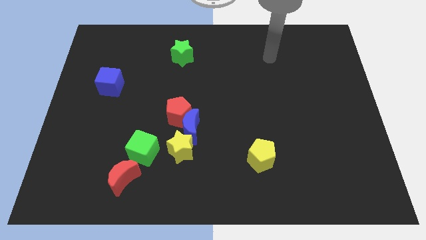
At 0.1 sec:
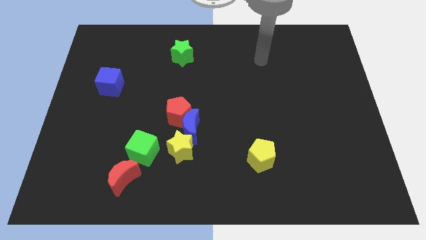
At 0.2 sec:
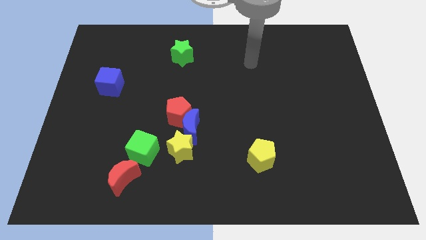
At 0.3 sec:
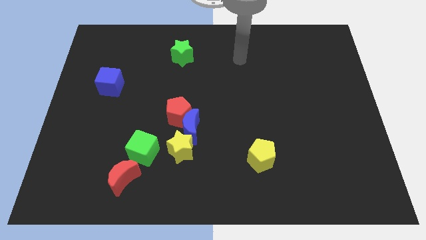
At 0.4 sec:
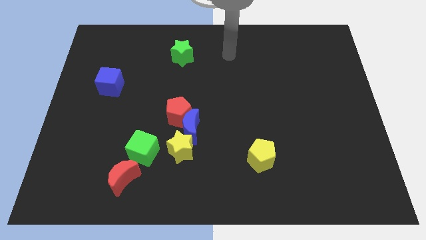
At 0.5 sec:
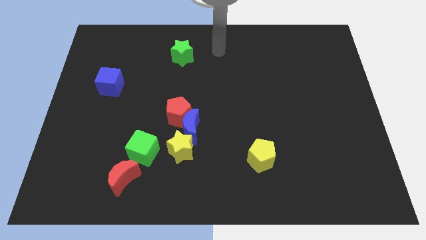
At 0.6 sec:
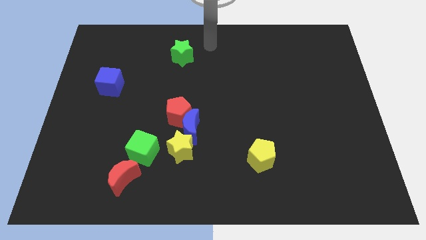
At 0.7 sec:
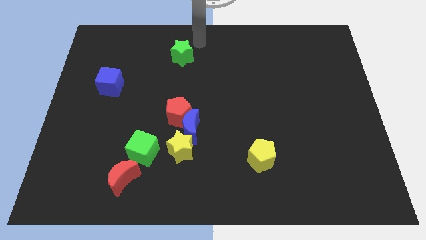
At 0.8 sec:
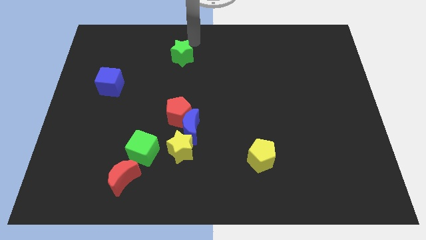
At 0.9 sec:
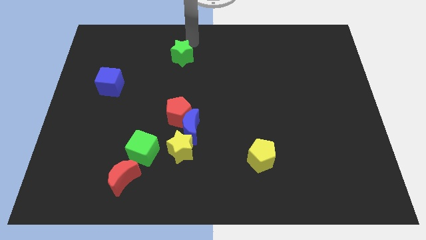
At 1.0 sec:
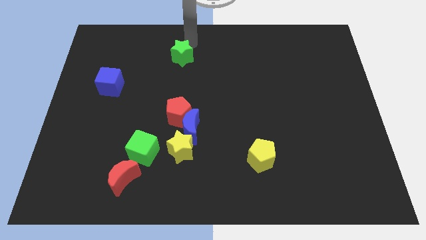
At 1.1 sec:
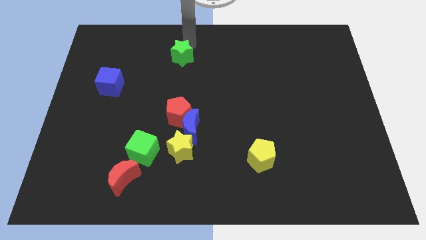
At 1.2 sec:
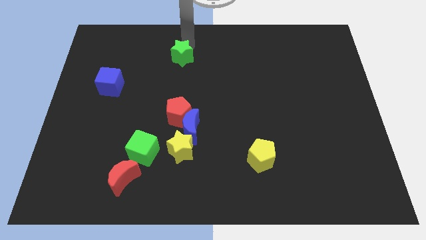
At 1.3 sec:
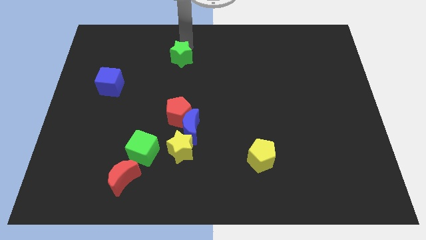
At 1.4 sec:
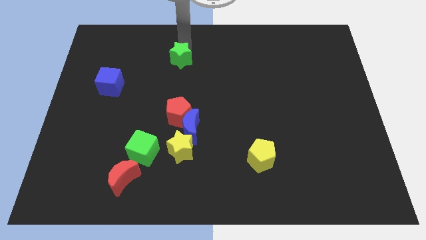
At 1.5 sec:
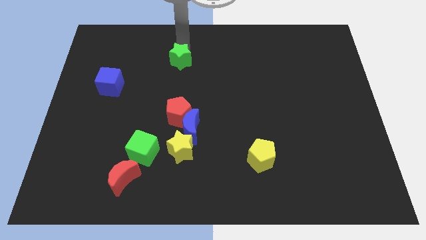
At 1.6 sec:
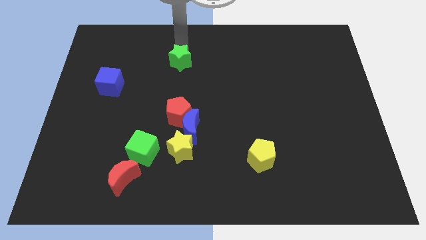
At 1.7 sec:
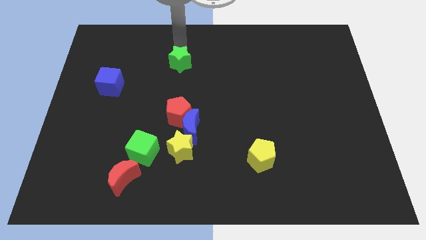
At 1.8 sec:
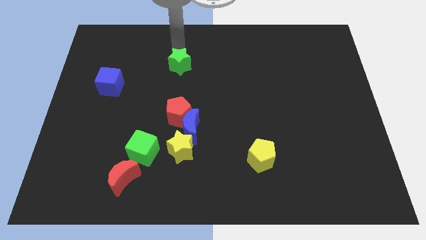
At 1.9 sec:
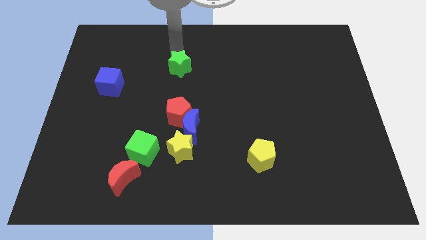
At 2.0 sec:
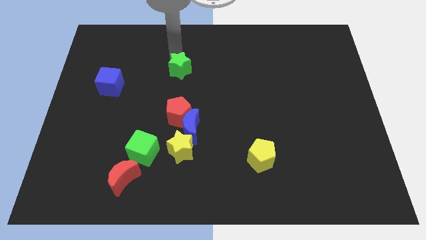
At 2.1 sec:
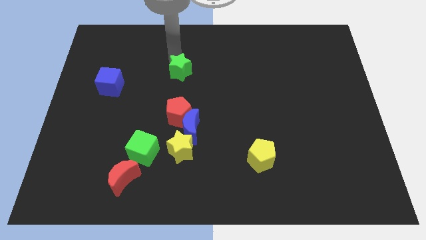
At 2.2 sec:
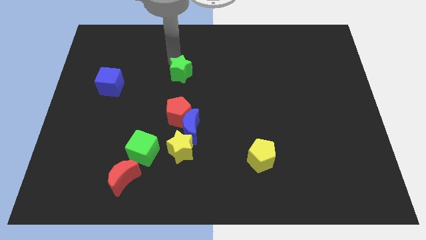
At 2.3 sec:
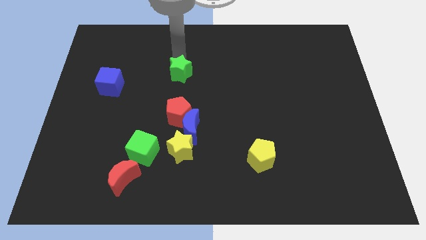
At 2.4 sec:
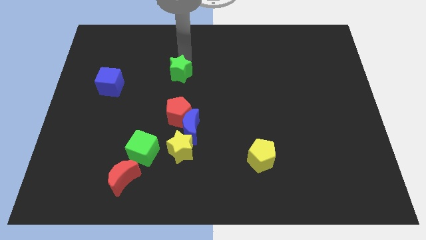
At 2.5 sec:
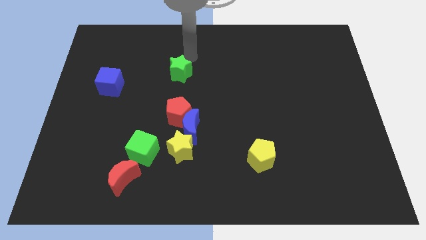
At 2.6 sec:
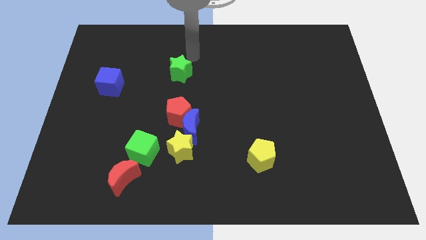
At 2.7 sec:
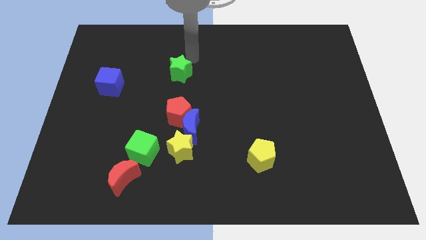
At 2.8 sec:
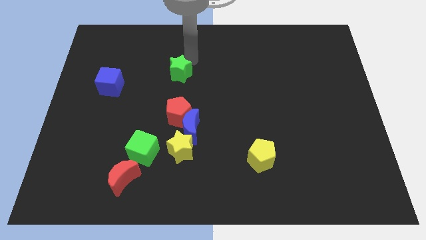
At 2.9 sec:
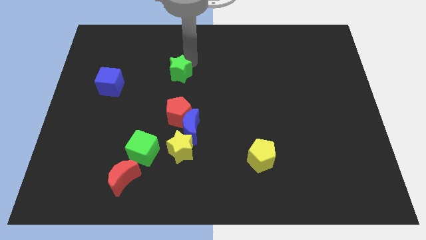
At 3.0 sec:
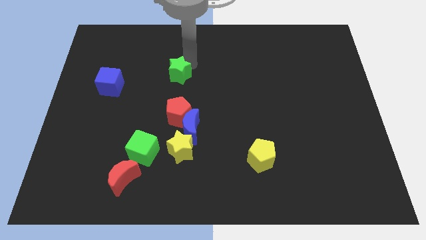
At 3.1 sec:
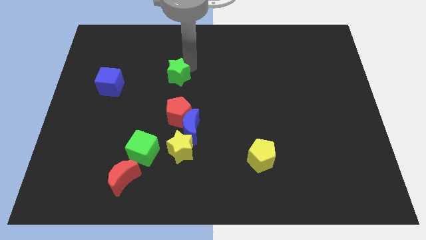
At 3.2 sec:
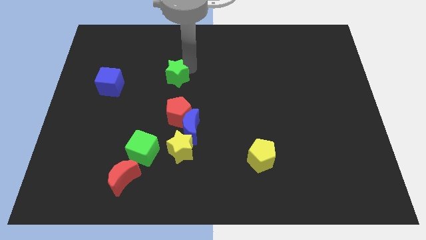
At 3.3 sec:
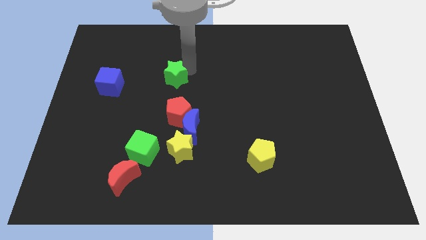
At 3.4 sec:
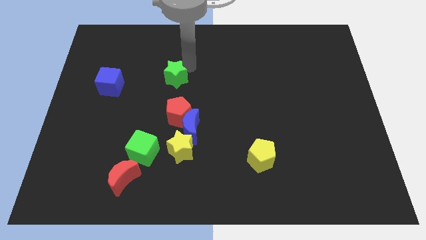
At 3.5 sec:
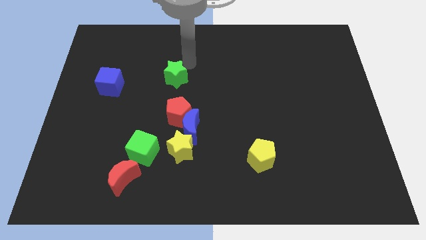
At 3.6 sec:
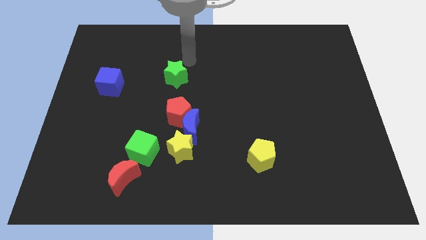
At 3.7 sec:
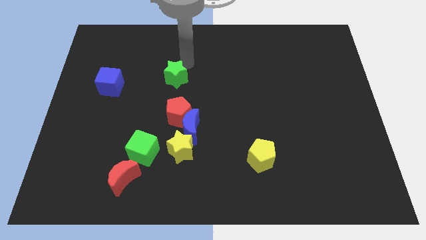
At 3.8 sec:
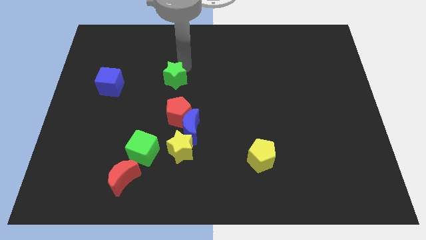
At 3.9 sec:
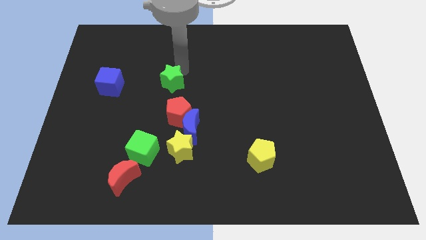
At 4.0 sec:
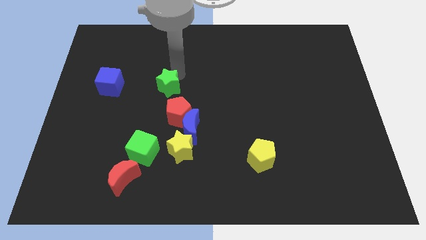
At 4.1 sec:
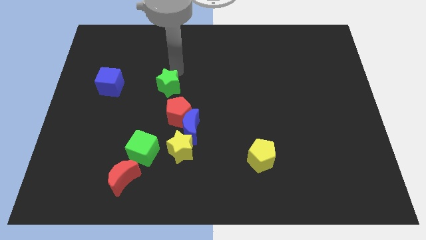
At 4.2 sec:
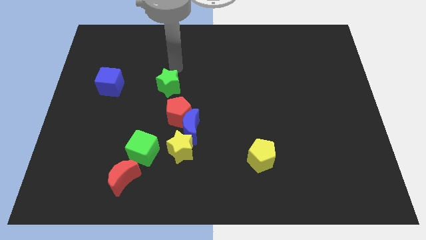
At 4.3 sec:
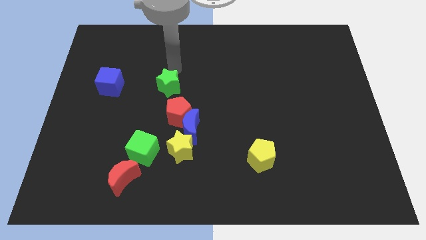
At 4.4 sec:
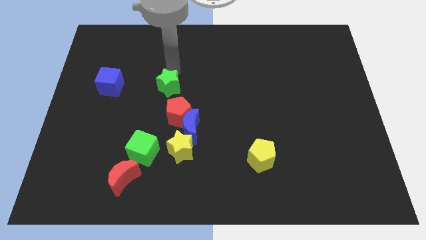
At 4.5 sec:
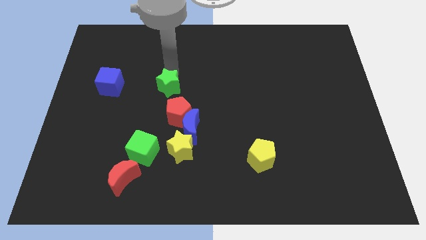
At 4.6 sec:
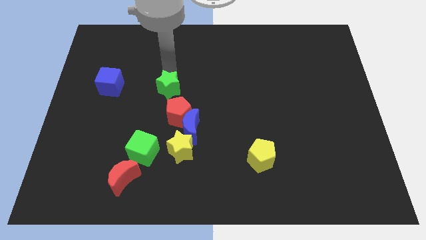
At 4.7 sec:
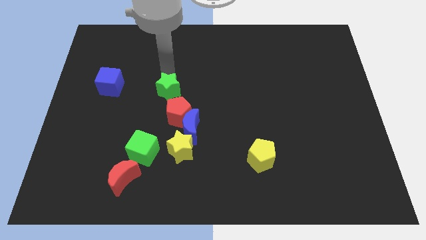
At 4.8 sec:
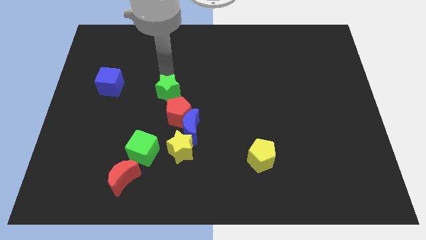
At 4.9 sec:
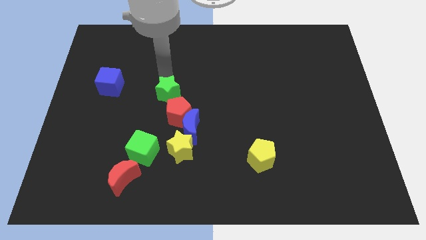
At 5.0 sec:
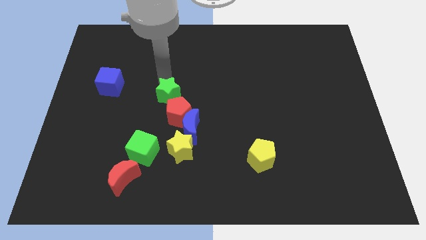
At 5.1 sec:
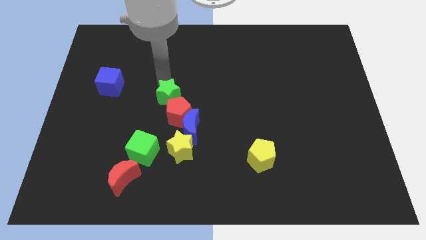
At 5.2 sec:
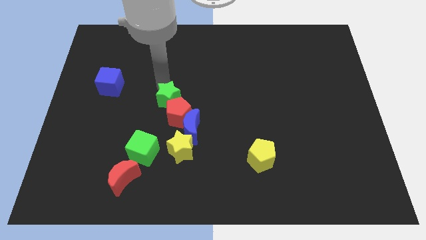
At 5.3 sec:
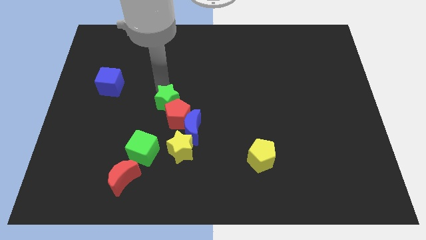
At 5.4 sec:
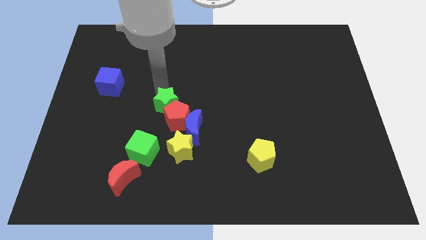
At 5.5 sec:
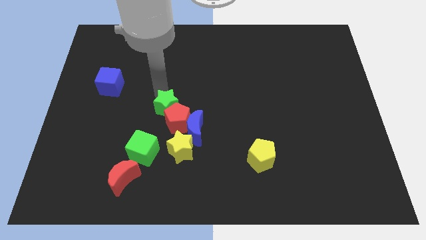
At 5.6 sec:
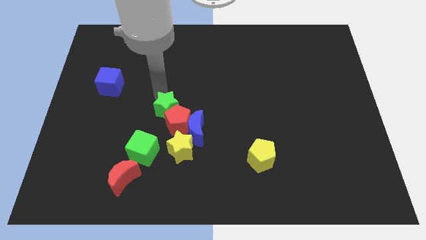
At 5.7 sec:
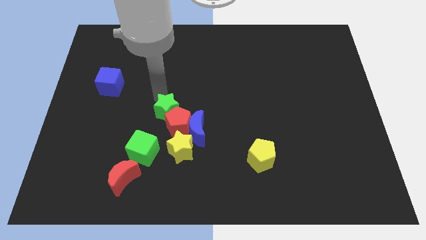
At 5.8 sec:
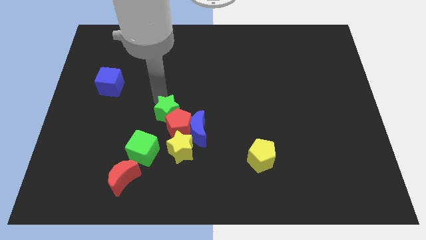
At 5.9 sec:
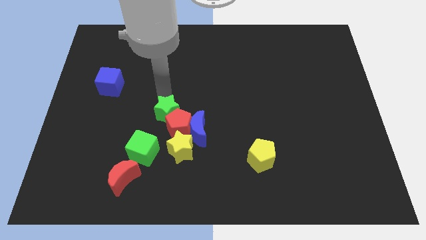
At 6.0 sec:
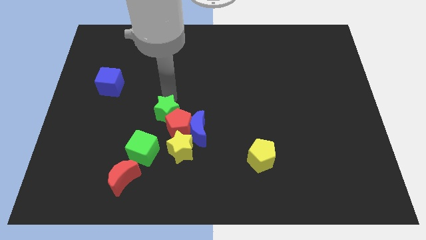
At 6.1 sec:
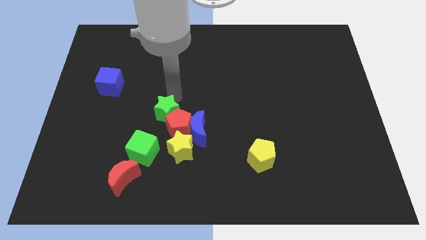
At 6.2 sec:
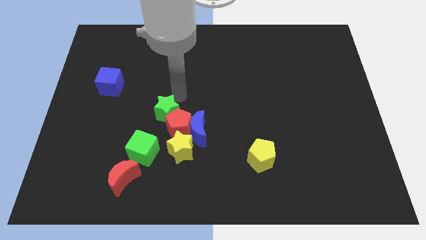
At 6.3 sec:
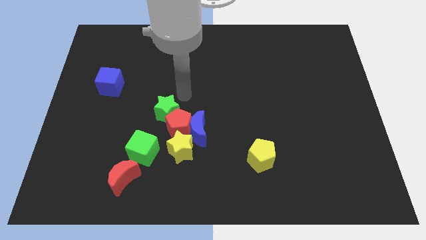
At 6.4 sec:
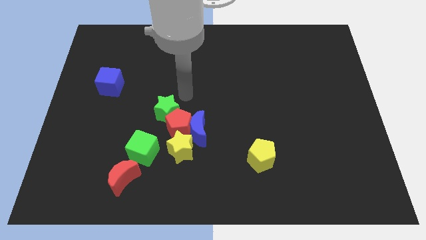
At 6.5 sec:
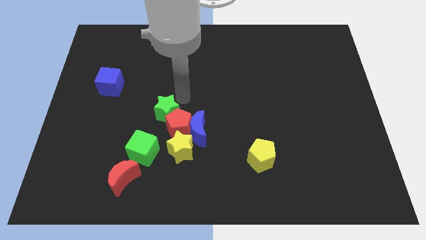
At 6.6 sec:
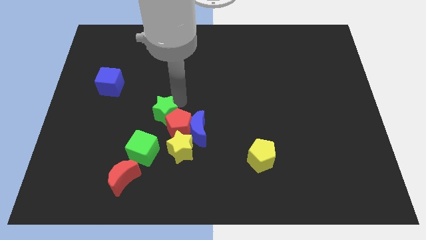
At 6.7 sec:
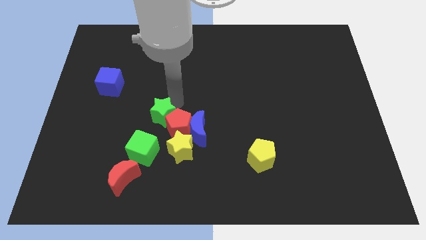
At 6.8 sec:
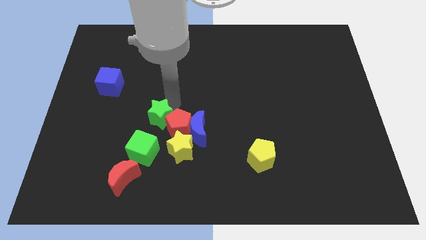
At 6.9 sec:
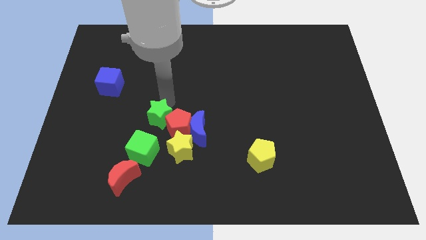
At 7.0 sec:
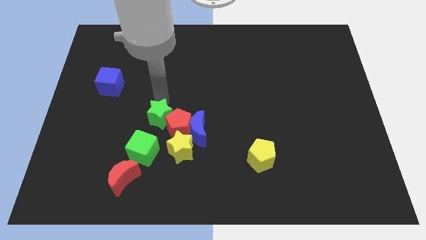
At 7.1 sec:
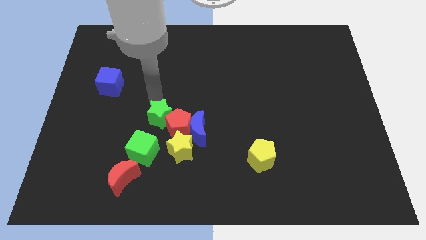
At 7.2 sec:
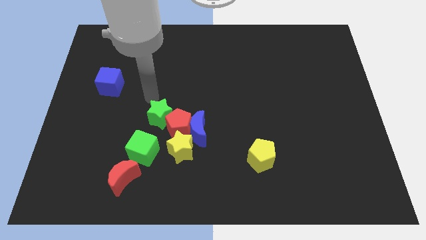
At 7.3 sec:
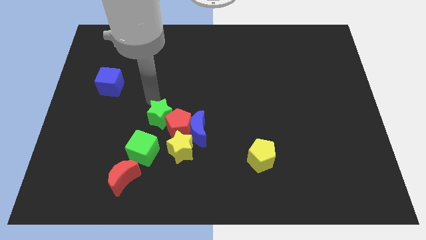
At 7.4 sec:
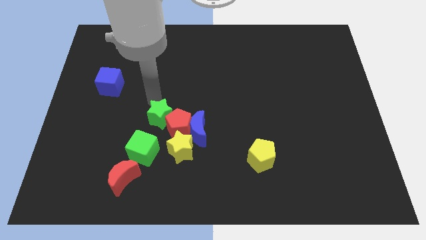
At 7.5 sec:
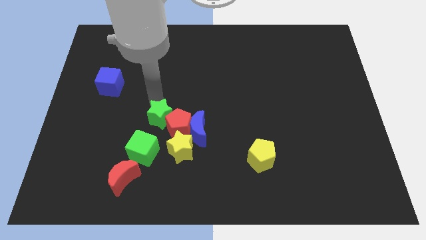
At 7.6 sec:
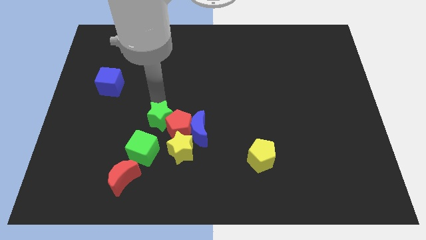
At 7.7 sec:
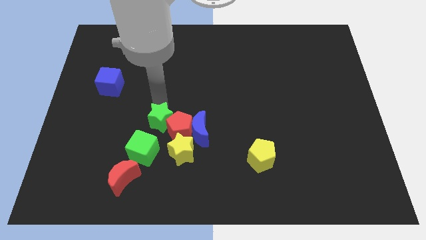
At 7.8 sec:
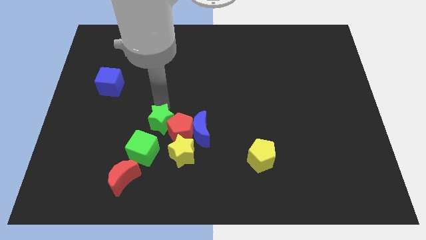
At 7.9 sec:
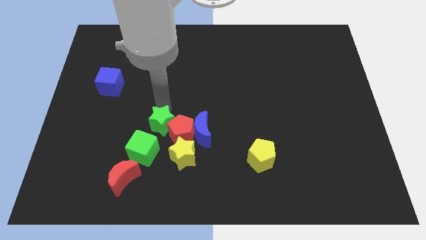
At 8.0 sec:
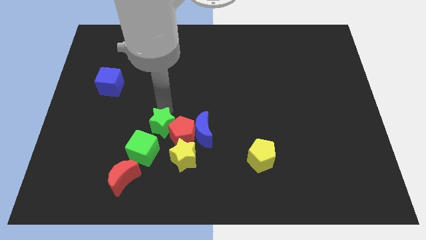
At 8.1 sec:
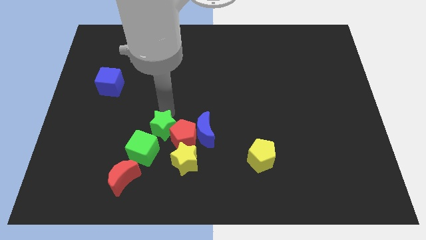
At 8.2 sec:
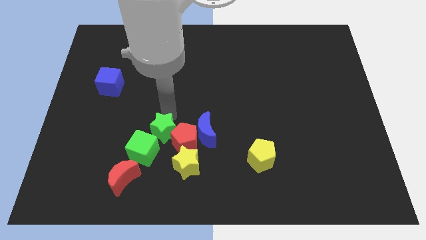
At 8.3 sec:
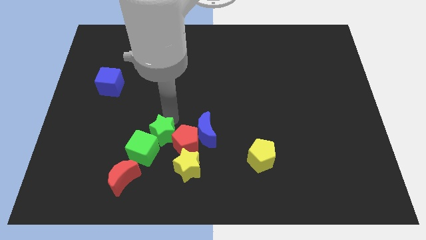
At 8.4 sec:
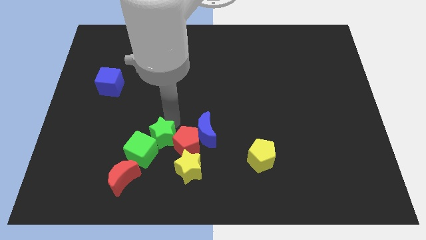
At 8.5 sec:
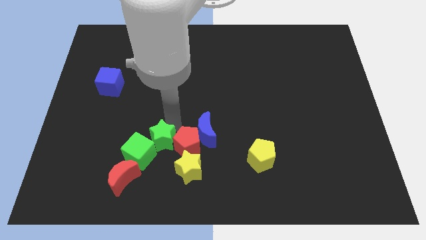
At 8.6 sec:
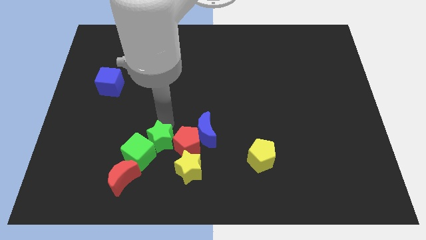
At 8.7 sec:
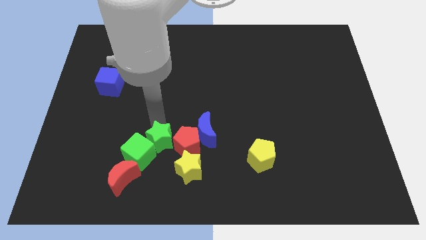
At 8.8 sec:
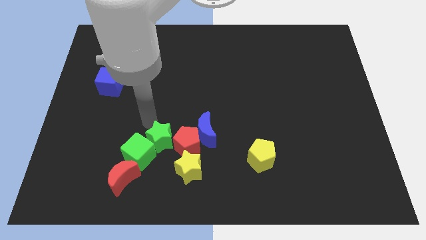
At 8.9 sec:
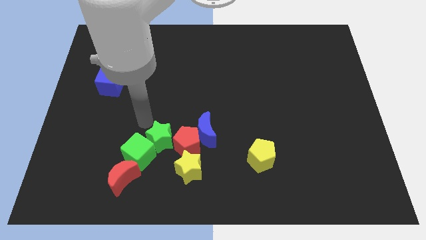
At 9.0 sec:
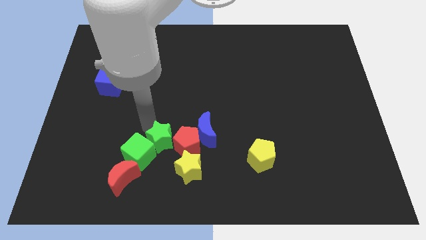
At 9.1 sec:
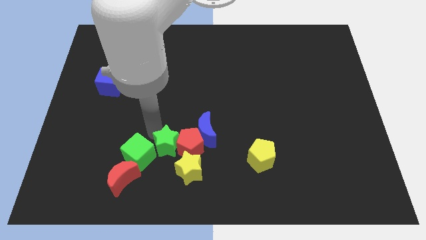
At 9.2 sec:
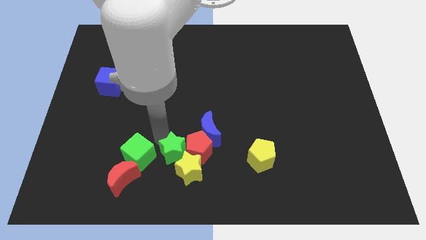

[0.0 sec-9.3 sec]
slide the green star next to the yellow star
